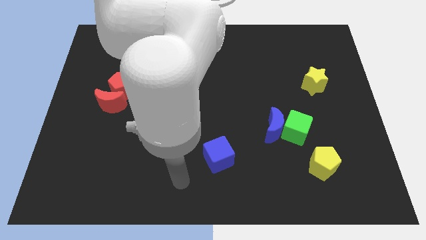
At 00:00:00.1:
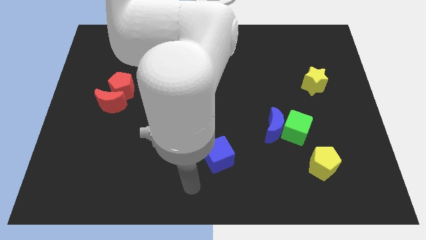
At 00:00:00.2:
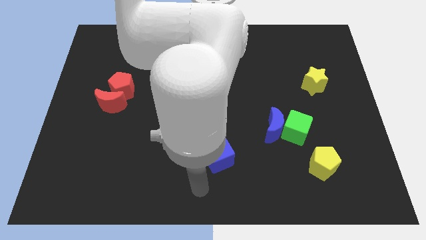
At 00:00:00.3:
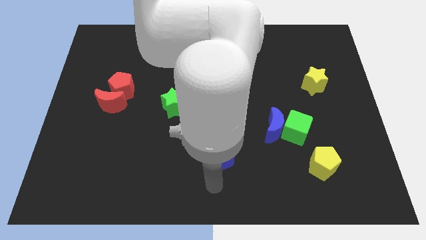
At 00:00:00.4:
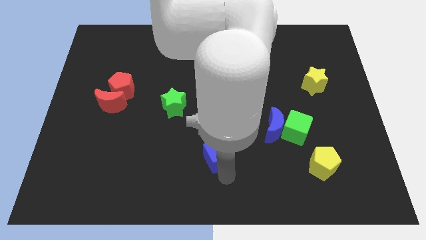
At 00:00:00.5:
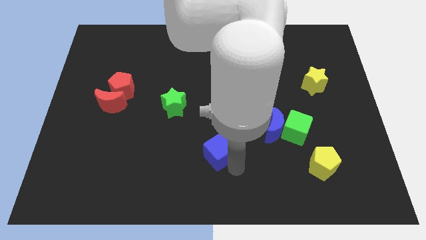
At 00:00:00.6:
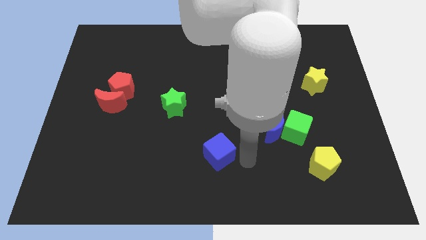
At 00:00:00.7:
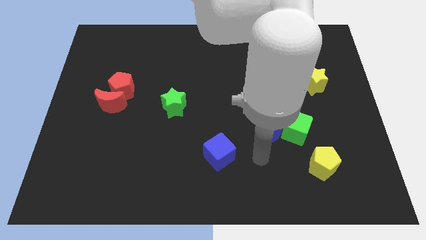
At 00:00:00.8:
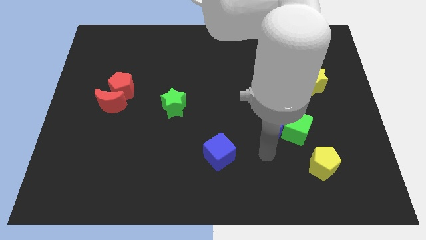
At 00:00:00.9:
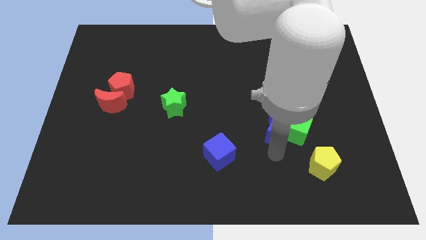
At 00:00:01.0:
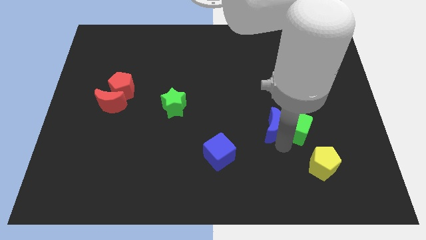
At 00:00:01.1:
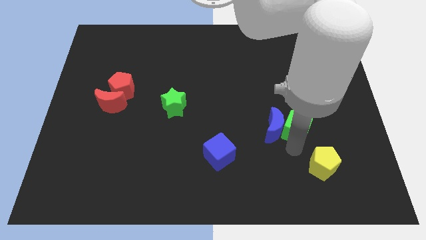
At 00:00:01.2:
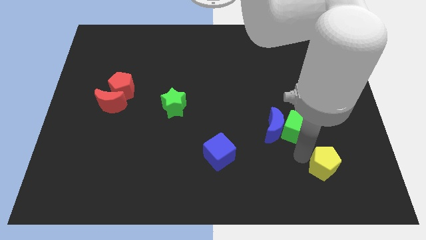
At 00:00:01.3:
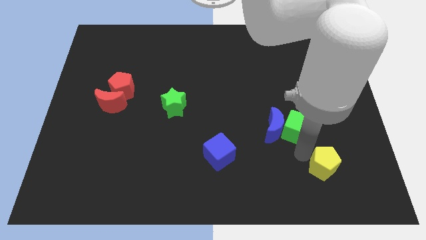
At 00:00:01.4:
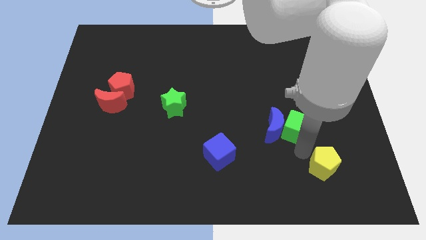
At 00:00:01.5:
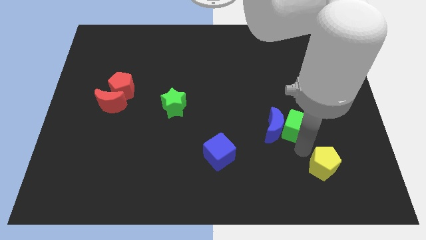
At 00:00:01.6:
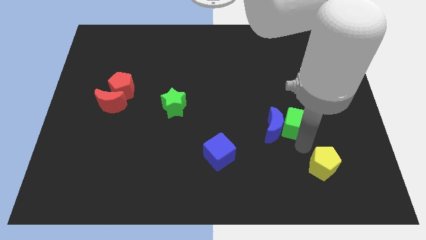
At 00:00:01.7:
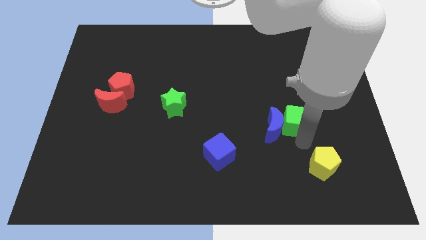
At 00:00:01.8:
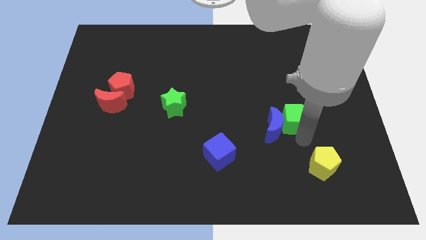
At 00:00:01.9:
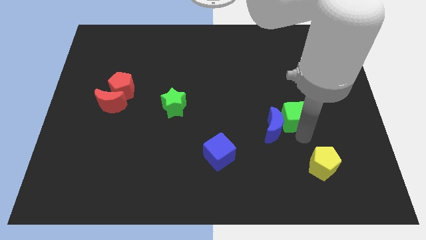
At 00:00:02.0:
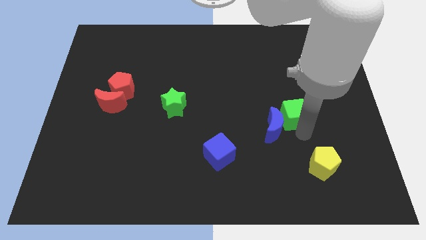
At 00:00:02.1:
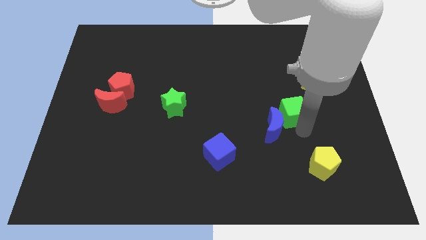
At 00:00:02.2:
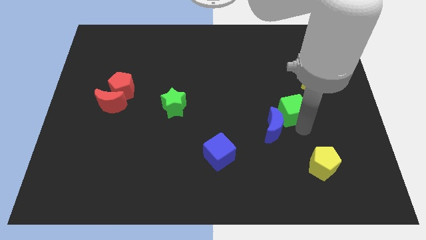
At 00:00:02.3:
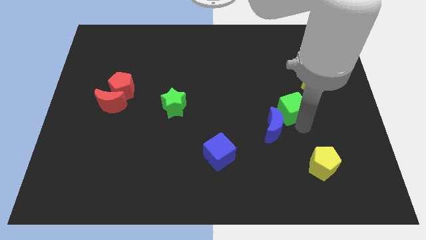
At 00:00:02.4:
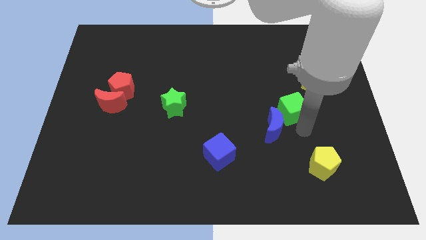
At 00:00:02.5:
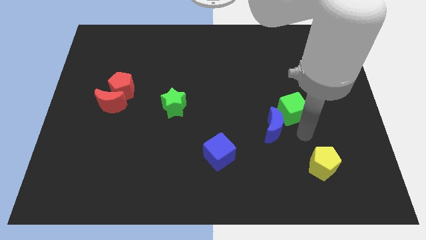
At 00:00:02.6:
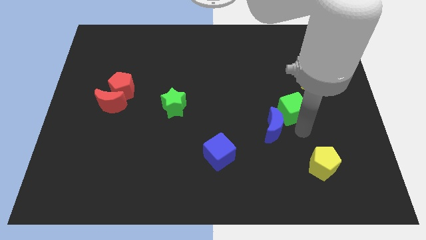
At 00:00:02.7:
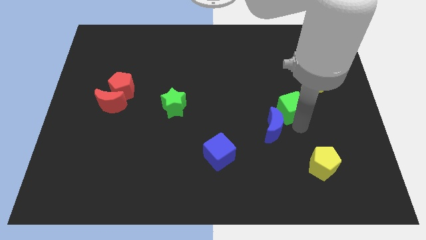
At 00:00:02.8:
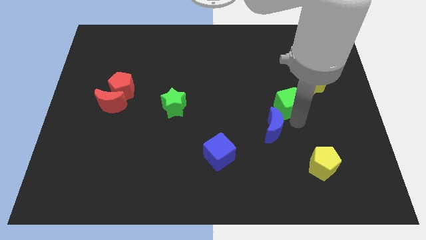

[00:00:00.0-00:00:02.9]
push the green cube up somewhat

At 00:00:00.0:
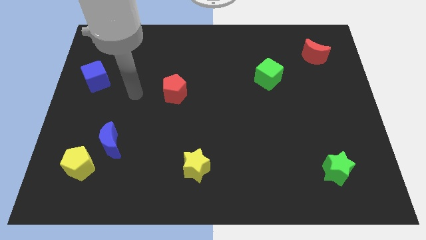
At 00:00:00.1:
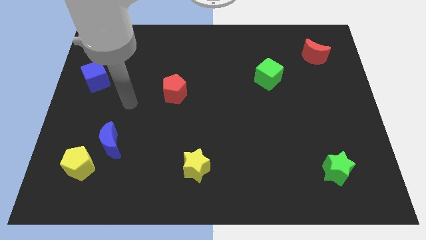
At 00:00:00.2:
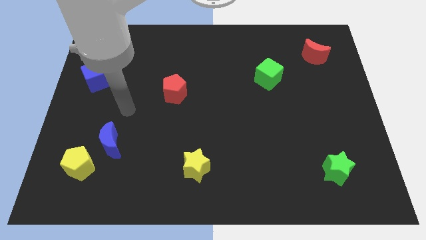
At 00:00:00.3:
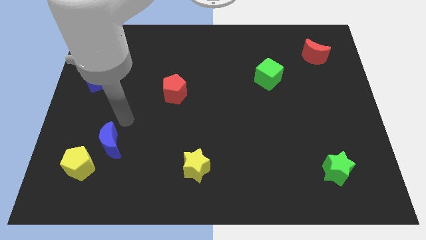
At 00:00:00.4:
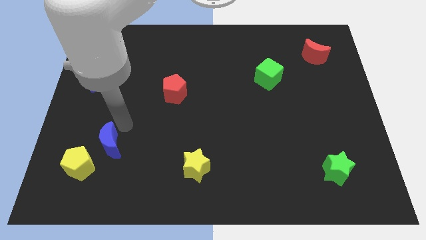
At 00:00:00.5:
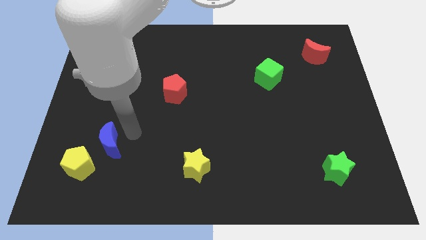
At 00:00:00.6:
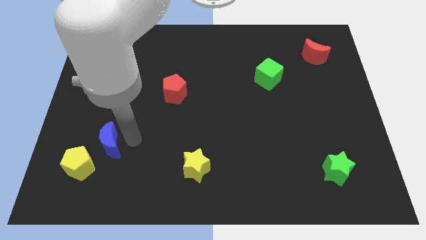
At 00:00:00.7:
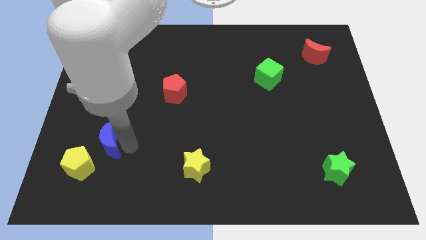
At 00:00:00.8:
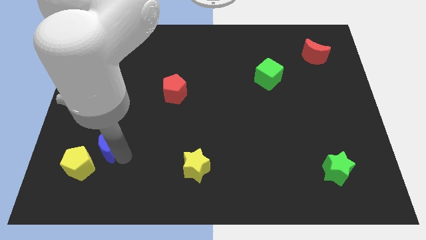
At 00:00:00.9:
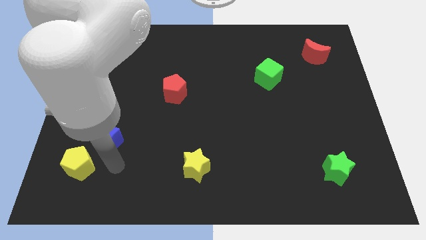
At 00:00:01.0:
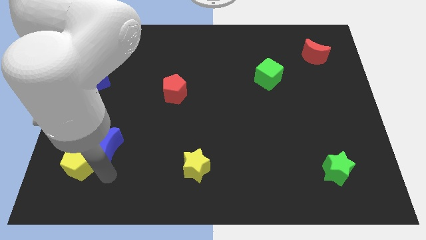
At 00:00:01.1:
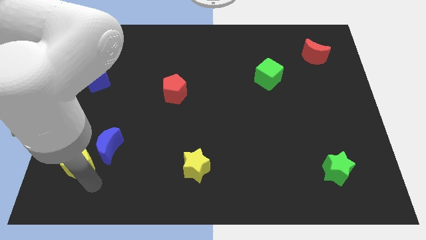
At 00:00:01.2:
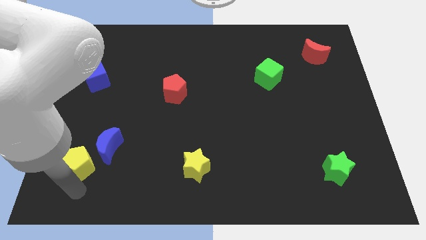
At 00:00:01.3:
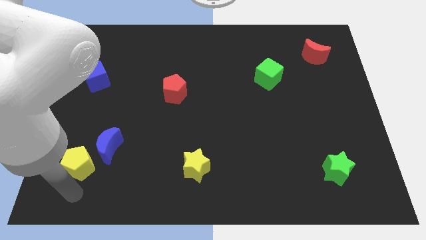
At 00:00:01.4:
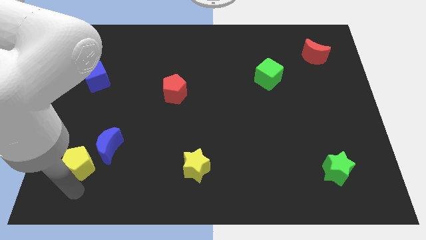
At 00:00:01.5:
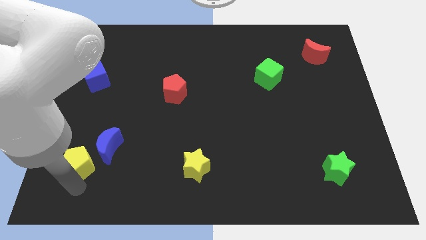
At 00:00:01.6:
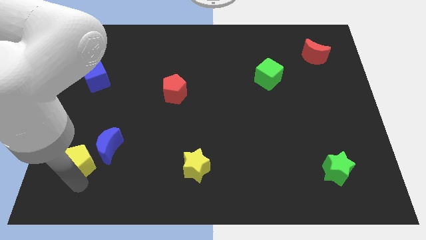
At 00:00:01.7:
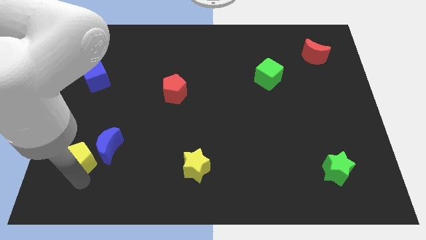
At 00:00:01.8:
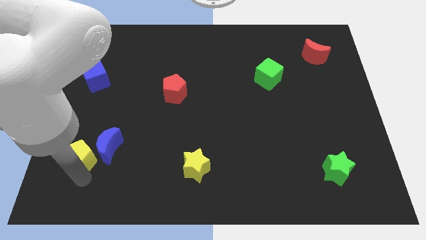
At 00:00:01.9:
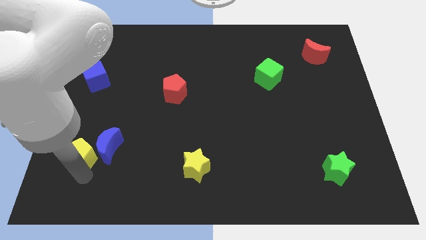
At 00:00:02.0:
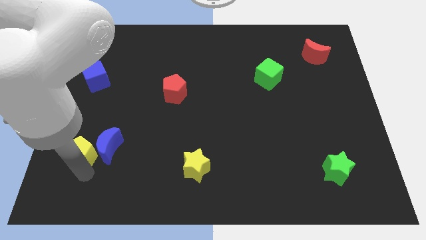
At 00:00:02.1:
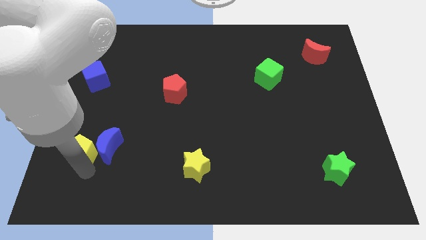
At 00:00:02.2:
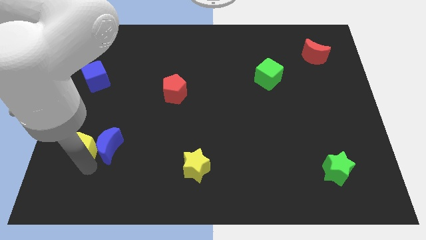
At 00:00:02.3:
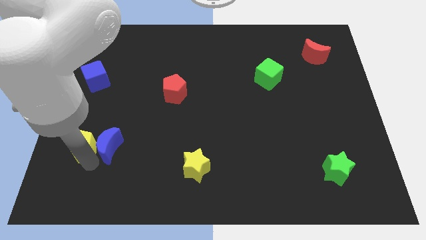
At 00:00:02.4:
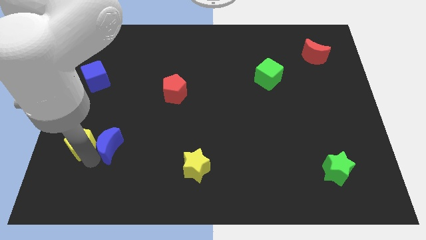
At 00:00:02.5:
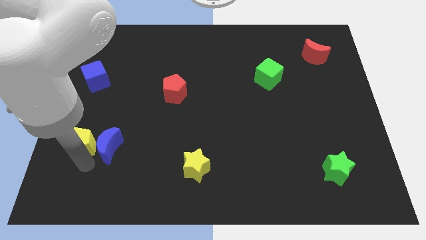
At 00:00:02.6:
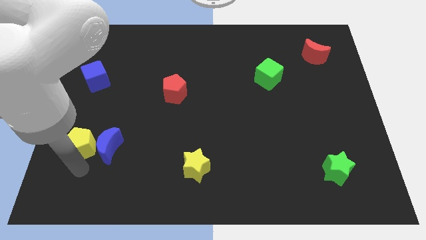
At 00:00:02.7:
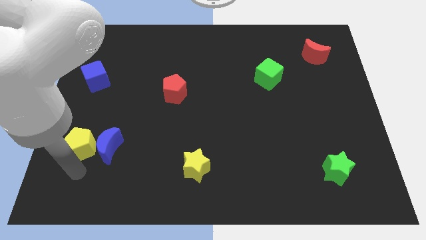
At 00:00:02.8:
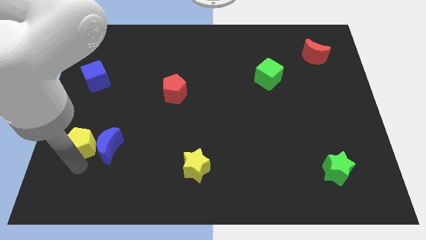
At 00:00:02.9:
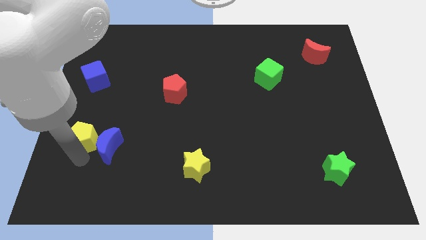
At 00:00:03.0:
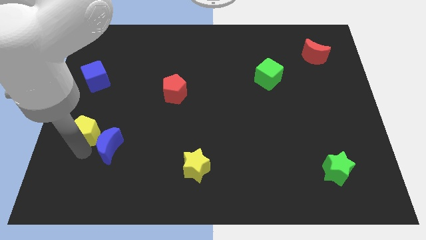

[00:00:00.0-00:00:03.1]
slide the yellow pentagon somewhat upwards

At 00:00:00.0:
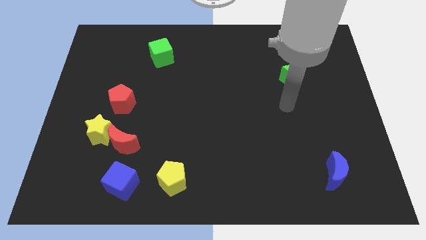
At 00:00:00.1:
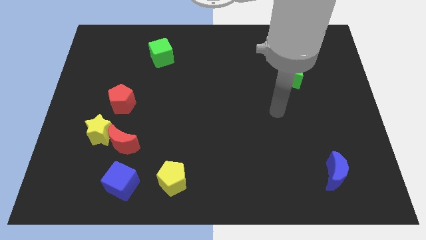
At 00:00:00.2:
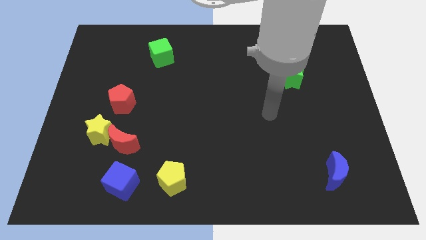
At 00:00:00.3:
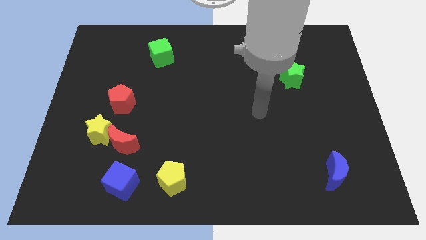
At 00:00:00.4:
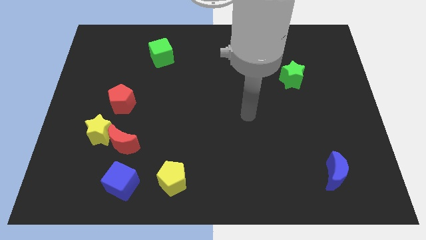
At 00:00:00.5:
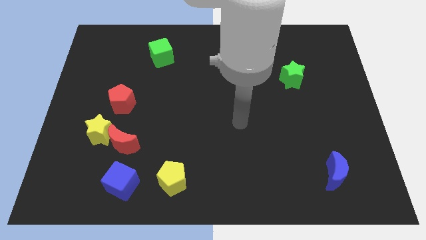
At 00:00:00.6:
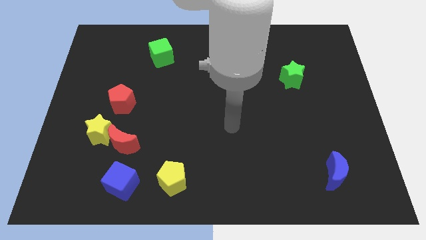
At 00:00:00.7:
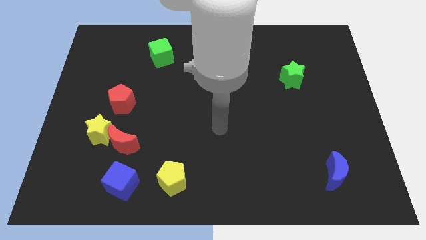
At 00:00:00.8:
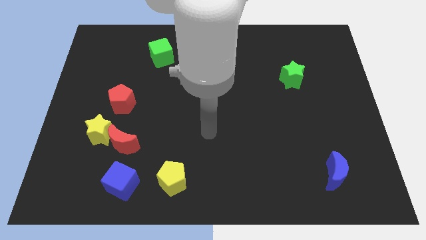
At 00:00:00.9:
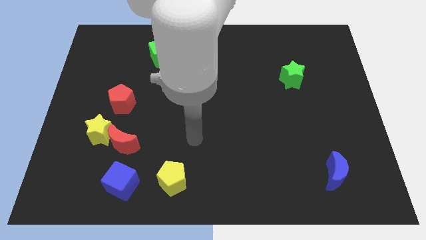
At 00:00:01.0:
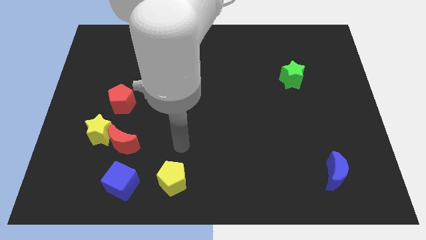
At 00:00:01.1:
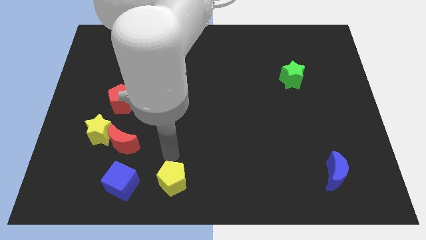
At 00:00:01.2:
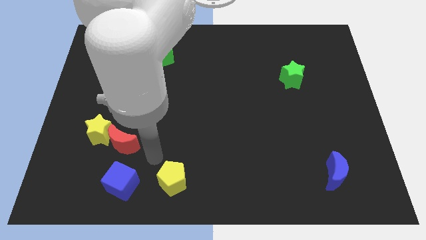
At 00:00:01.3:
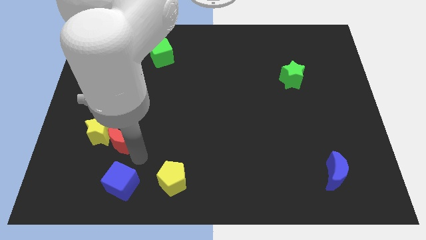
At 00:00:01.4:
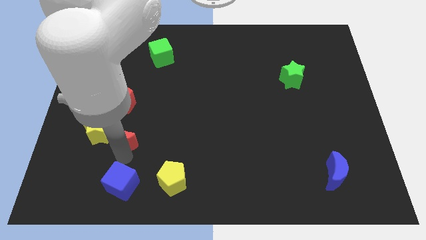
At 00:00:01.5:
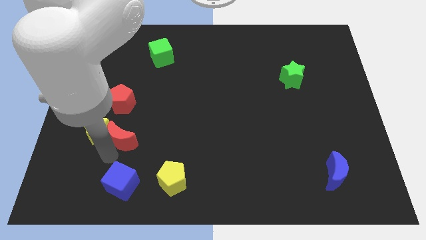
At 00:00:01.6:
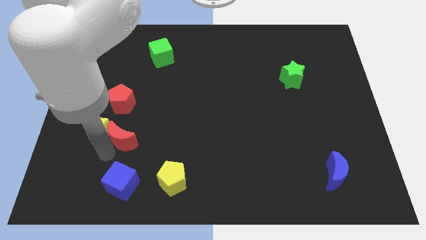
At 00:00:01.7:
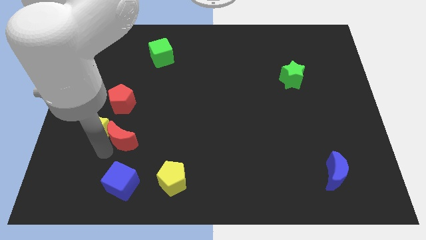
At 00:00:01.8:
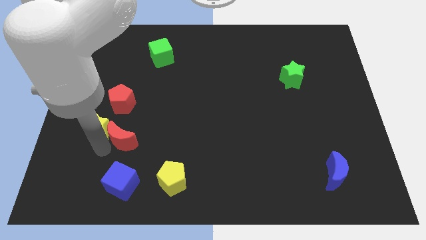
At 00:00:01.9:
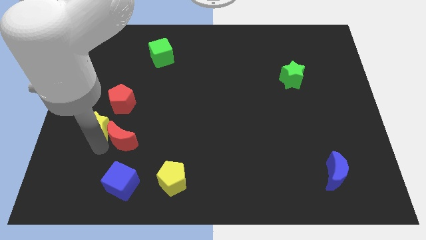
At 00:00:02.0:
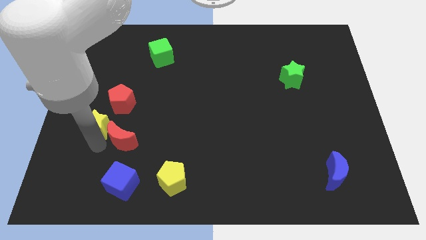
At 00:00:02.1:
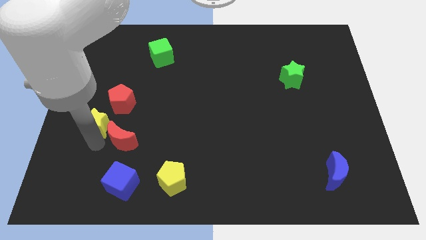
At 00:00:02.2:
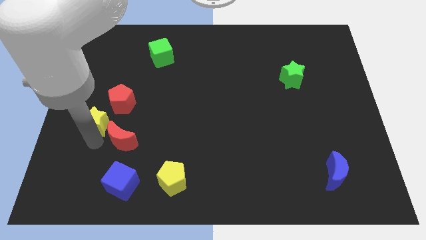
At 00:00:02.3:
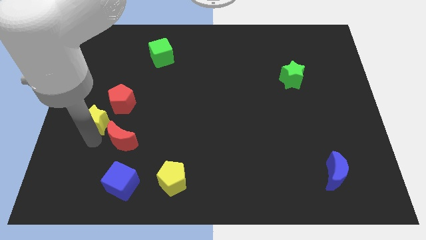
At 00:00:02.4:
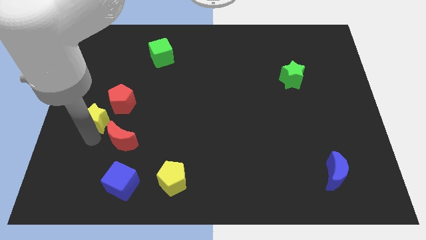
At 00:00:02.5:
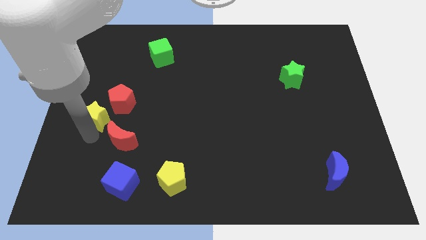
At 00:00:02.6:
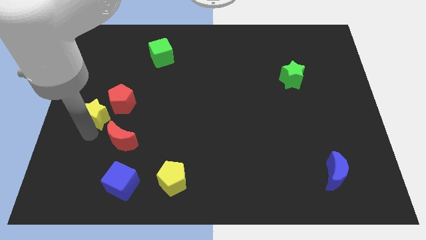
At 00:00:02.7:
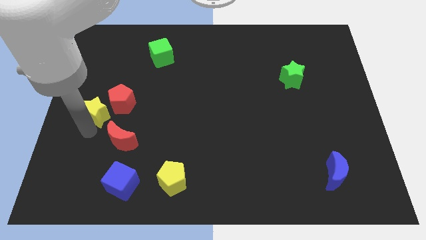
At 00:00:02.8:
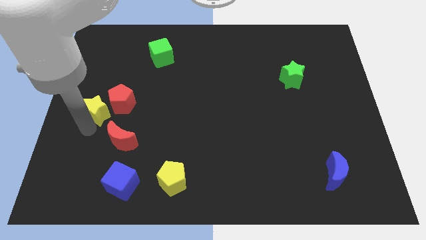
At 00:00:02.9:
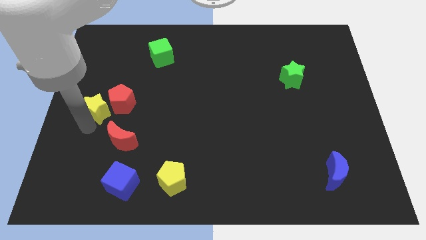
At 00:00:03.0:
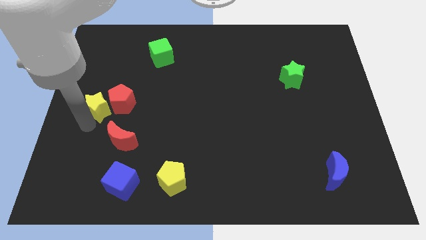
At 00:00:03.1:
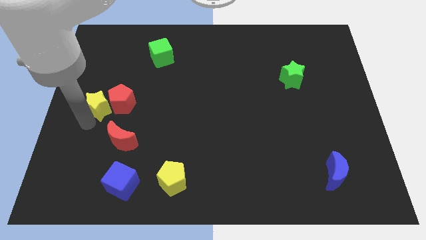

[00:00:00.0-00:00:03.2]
push the yellow star up a little bit
